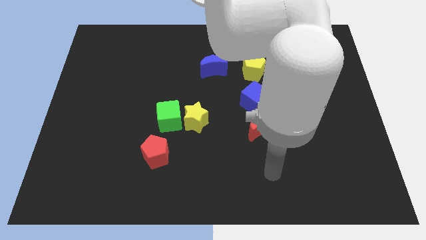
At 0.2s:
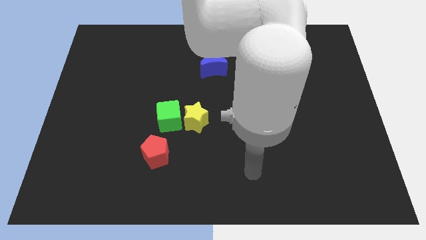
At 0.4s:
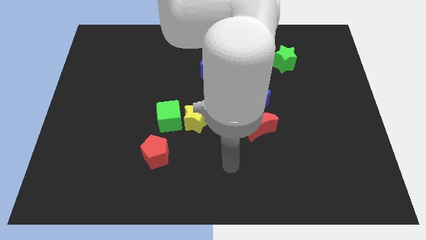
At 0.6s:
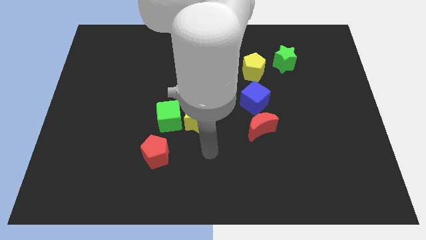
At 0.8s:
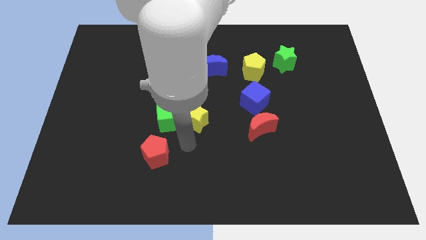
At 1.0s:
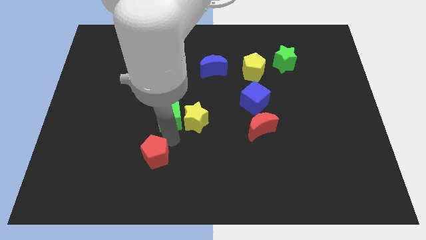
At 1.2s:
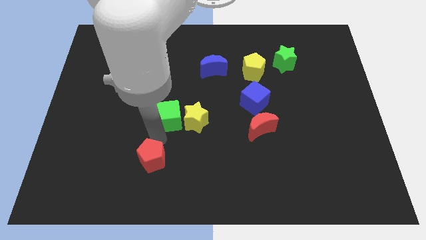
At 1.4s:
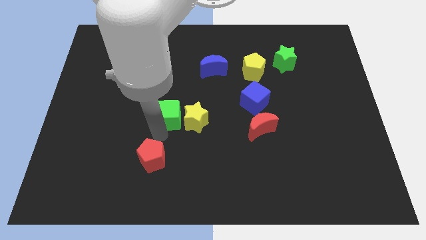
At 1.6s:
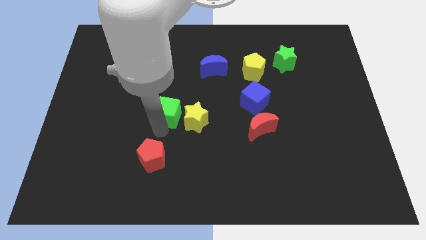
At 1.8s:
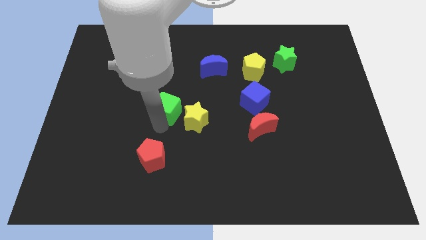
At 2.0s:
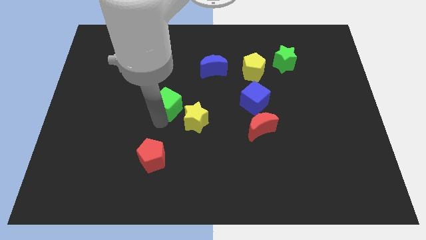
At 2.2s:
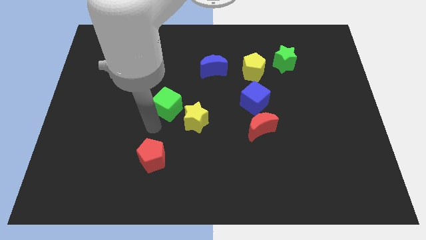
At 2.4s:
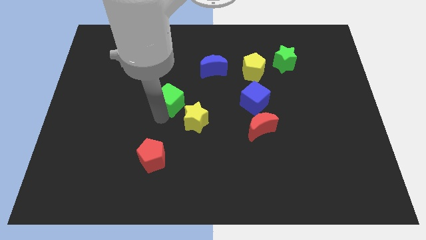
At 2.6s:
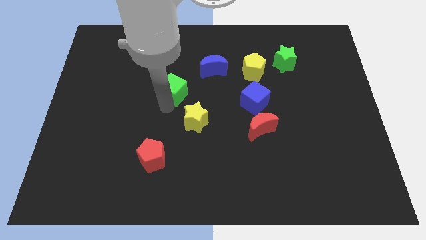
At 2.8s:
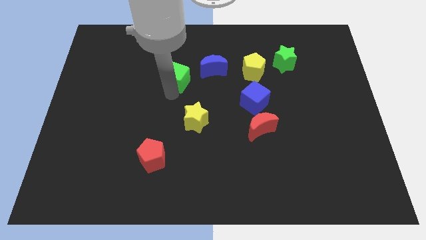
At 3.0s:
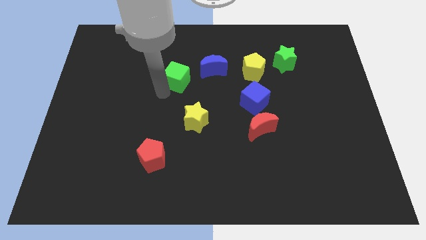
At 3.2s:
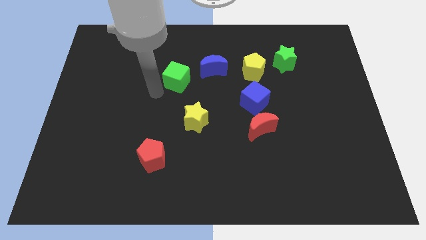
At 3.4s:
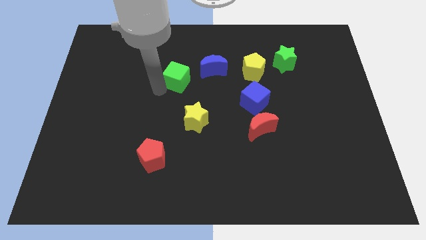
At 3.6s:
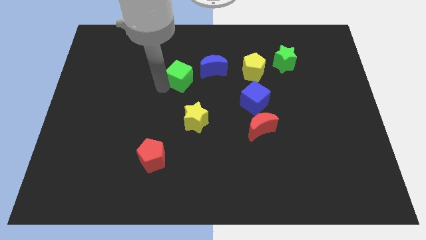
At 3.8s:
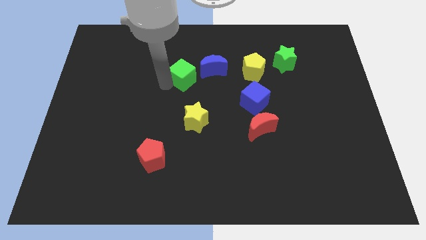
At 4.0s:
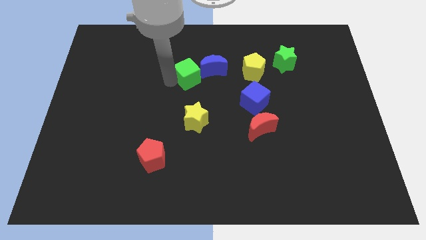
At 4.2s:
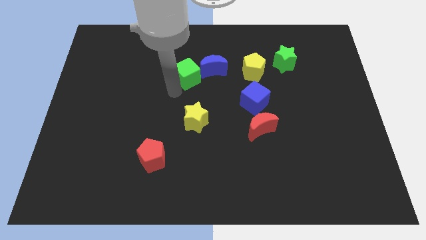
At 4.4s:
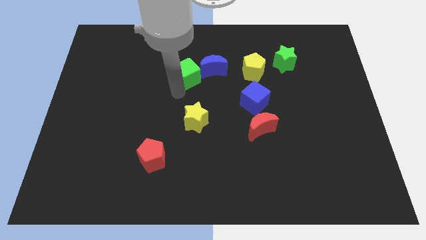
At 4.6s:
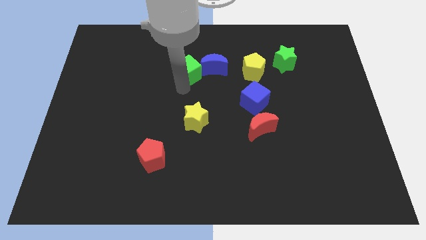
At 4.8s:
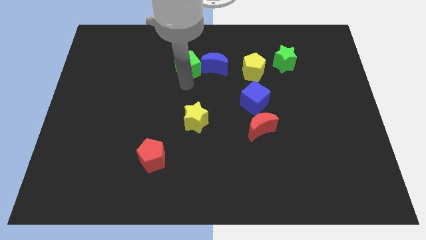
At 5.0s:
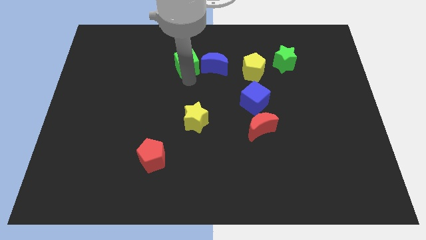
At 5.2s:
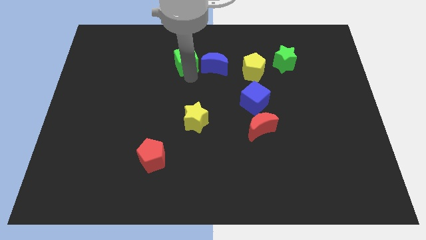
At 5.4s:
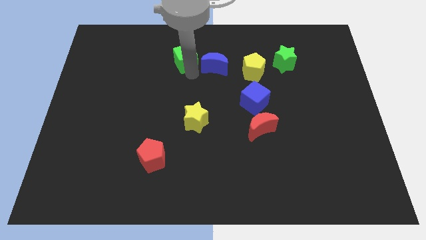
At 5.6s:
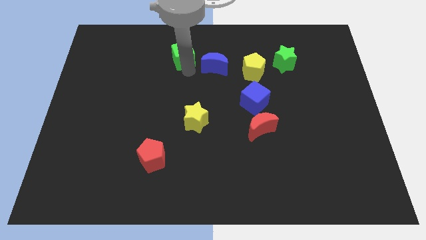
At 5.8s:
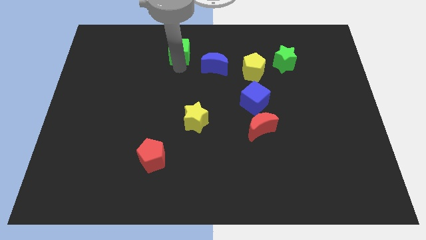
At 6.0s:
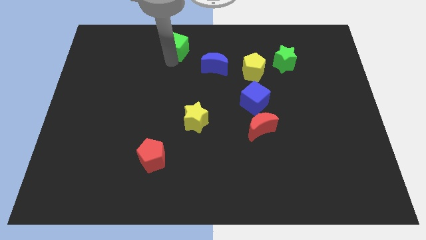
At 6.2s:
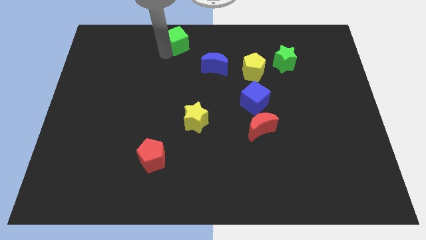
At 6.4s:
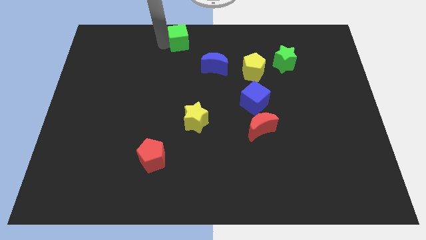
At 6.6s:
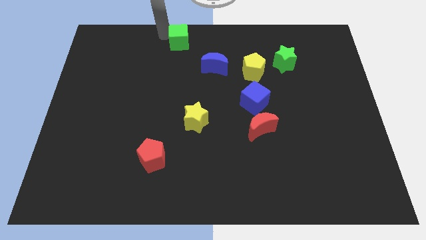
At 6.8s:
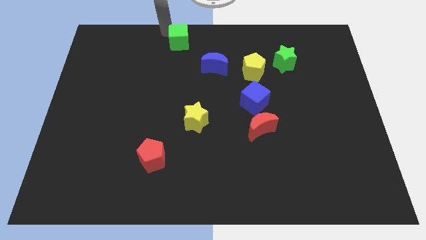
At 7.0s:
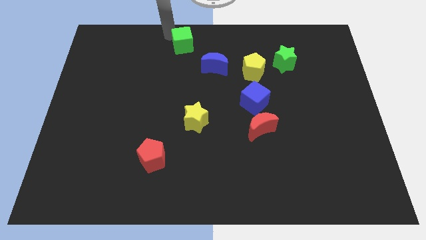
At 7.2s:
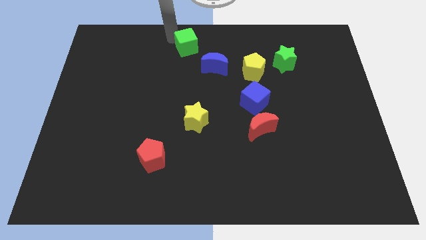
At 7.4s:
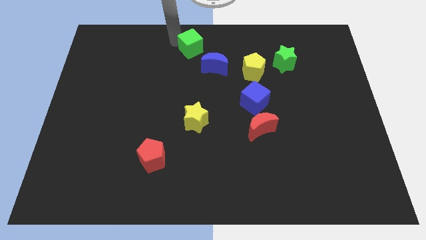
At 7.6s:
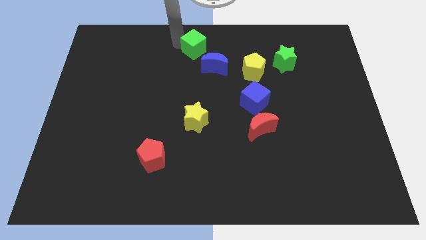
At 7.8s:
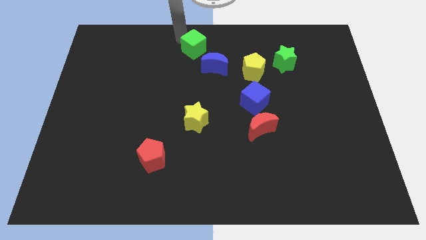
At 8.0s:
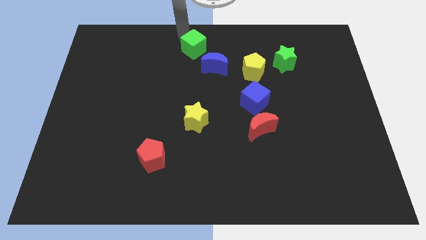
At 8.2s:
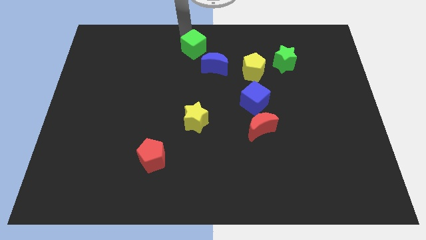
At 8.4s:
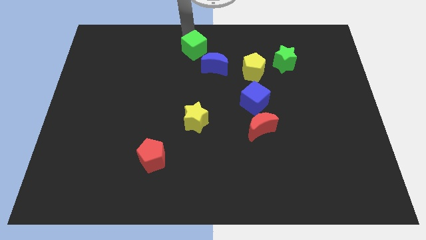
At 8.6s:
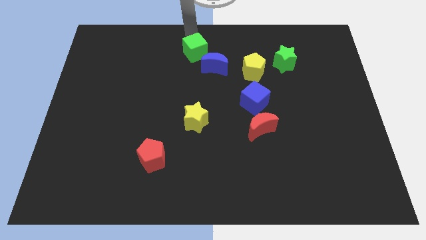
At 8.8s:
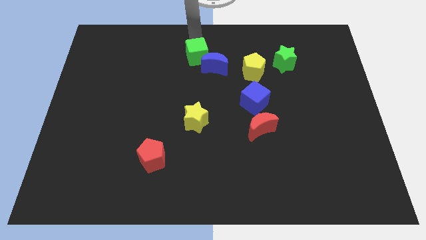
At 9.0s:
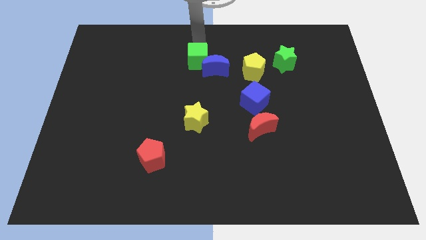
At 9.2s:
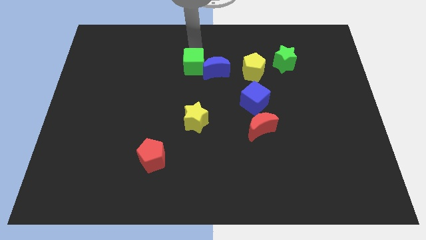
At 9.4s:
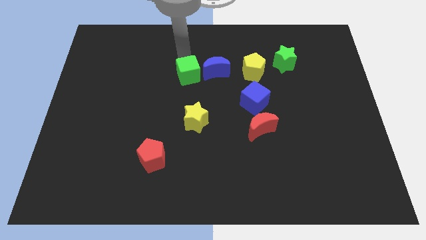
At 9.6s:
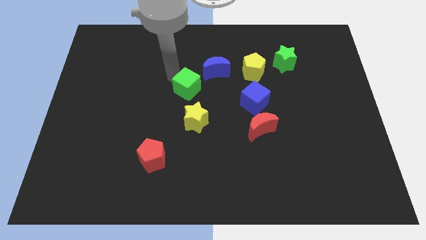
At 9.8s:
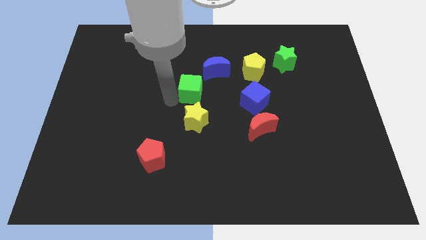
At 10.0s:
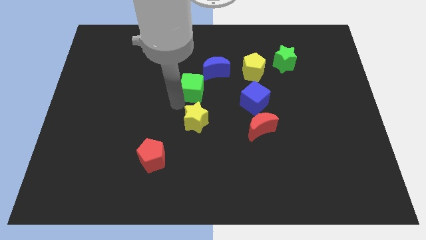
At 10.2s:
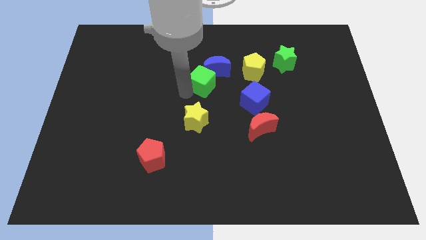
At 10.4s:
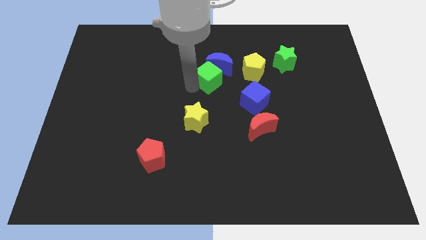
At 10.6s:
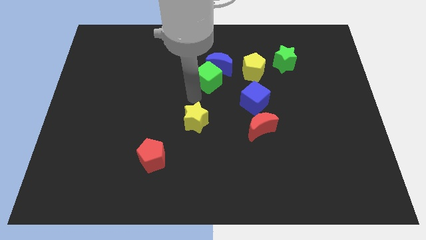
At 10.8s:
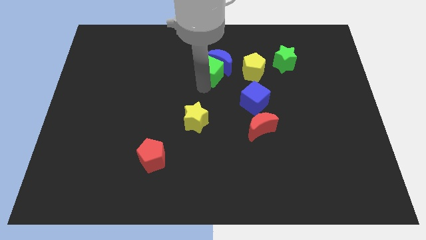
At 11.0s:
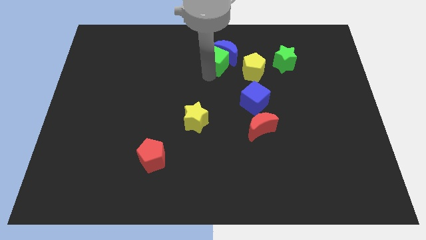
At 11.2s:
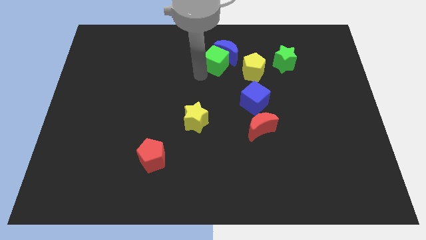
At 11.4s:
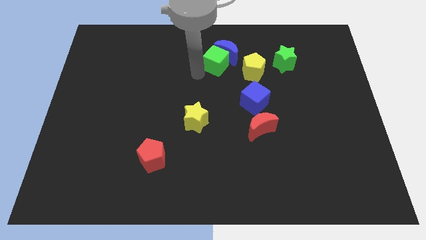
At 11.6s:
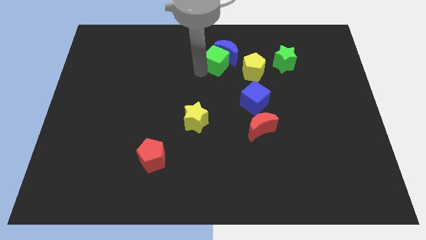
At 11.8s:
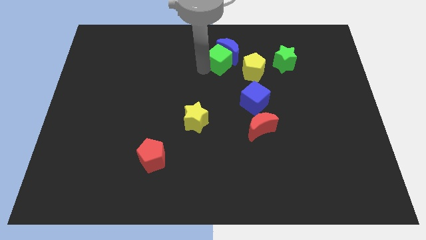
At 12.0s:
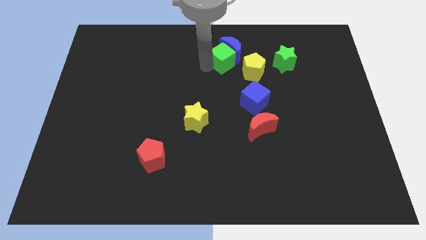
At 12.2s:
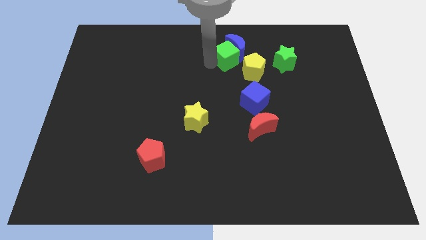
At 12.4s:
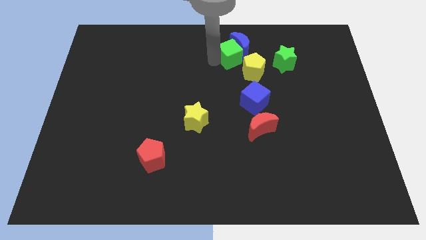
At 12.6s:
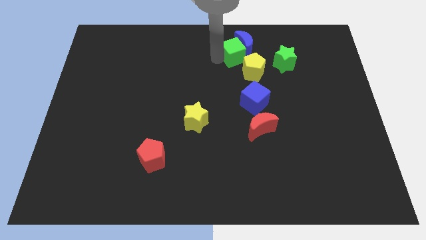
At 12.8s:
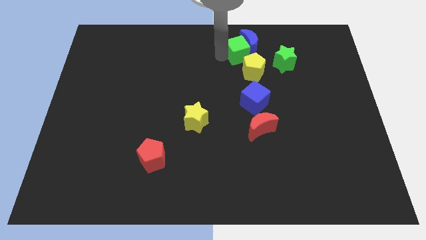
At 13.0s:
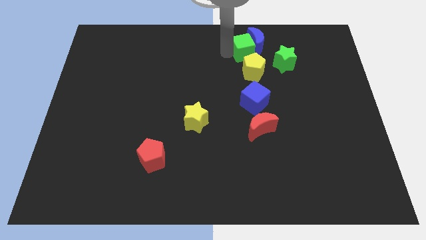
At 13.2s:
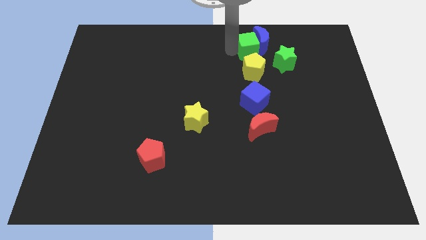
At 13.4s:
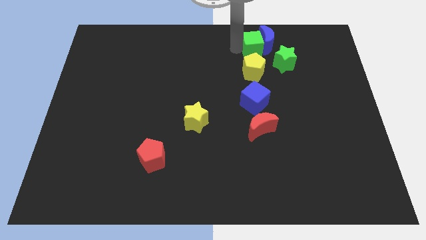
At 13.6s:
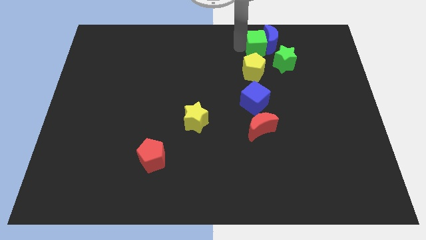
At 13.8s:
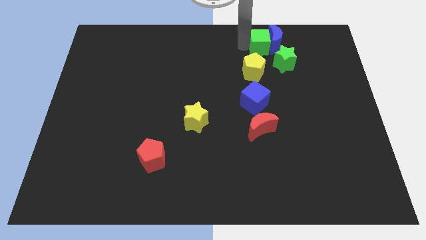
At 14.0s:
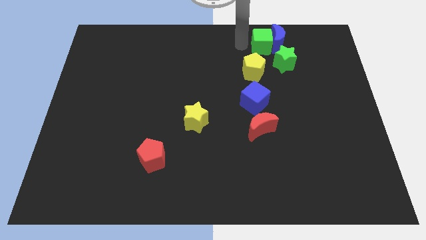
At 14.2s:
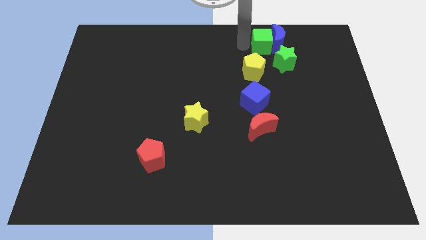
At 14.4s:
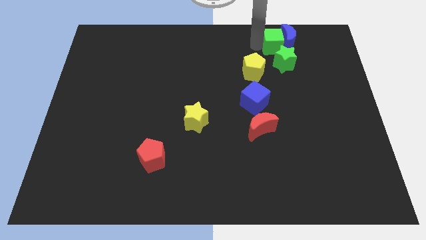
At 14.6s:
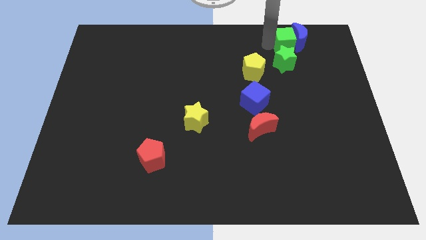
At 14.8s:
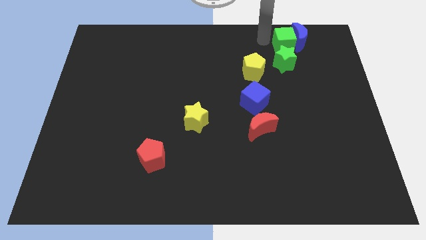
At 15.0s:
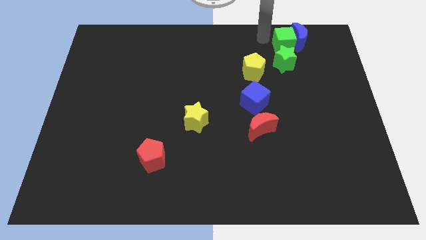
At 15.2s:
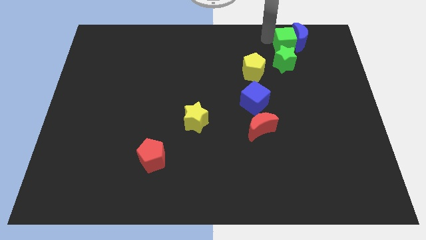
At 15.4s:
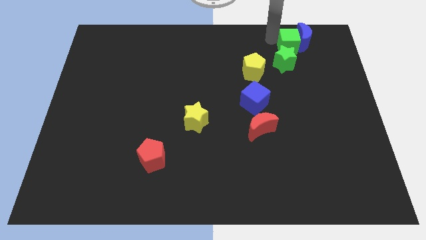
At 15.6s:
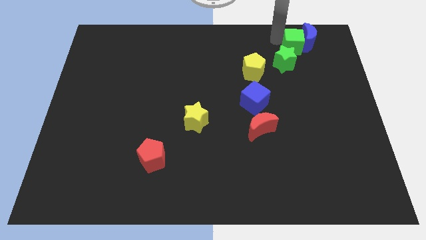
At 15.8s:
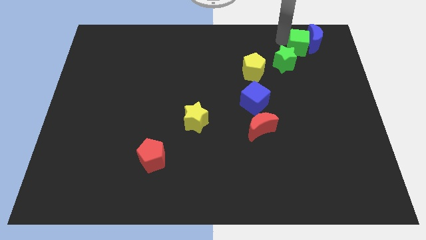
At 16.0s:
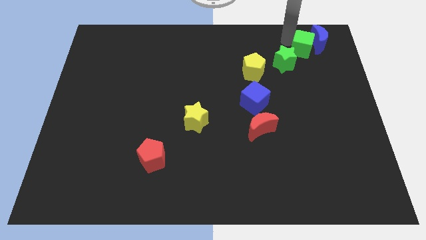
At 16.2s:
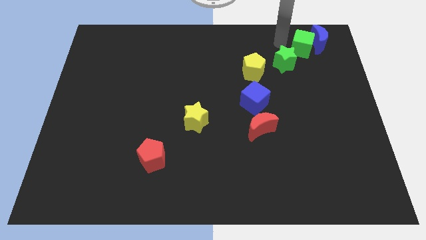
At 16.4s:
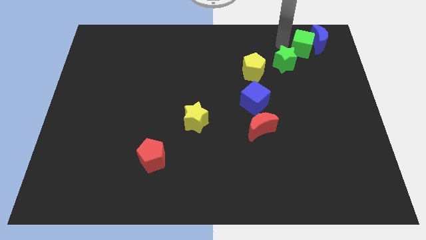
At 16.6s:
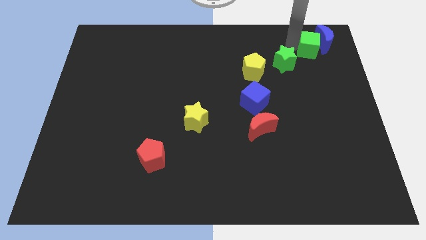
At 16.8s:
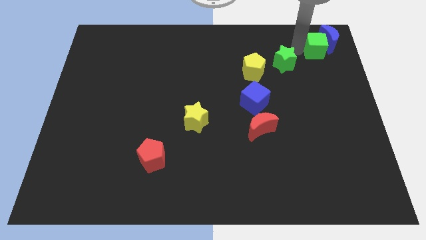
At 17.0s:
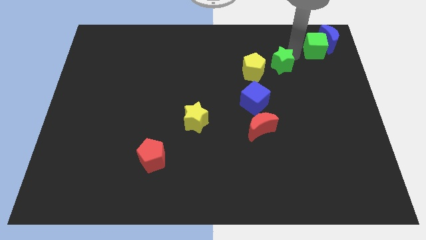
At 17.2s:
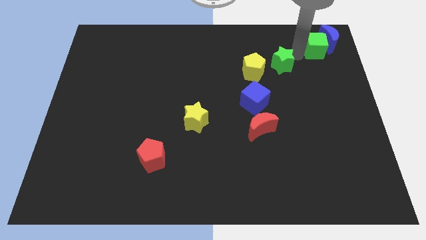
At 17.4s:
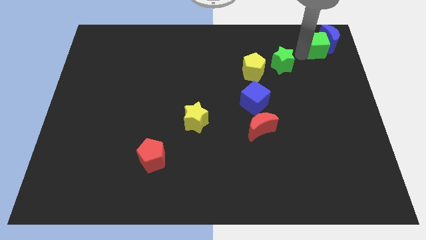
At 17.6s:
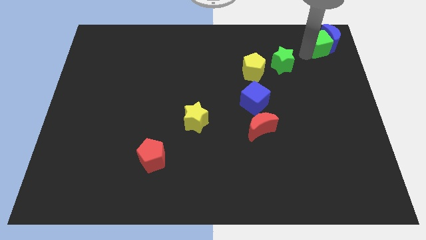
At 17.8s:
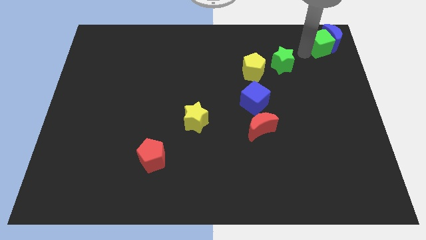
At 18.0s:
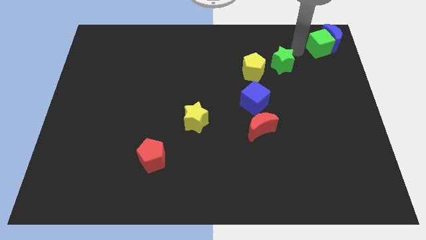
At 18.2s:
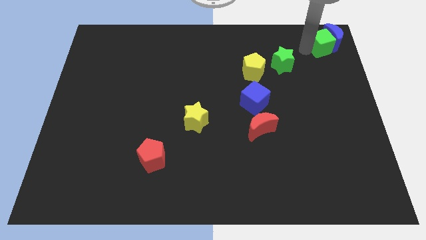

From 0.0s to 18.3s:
push the green cube to the top right
